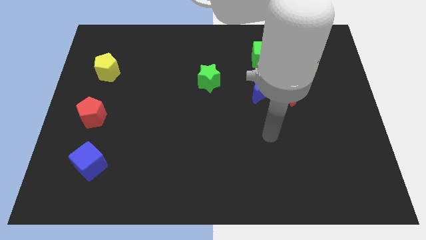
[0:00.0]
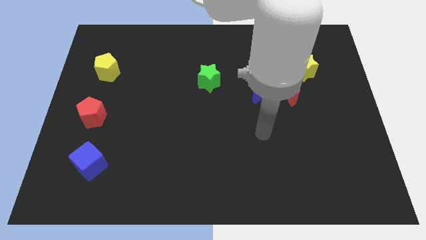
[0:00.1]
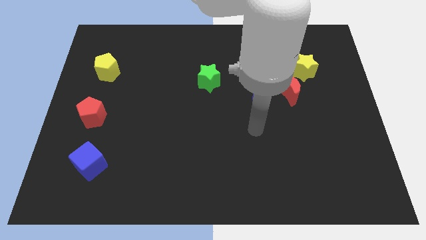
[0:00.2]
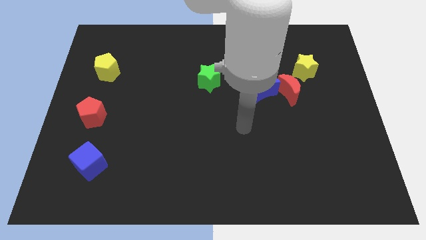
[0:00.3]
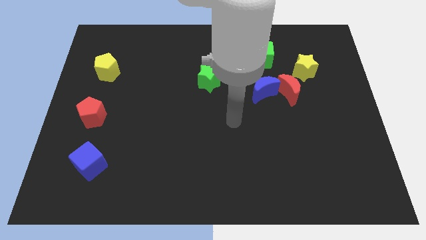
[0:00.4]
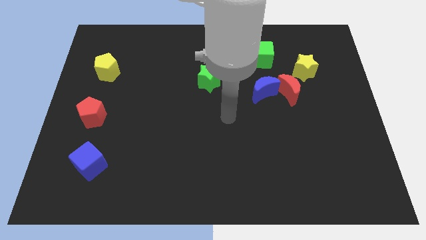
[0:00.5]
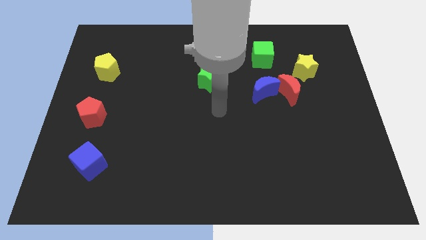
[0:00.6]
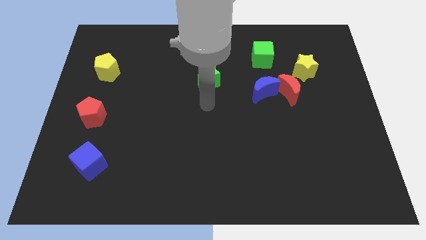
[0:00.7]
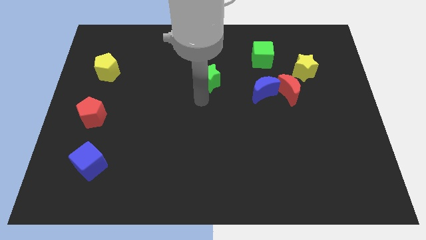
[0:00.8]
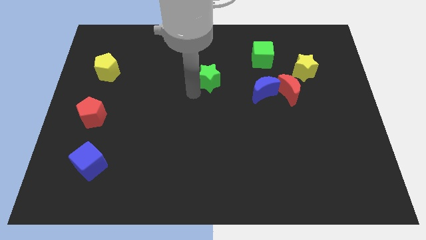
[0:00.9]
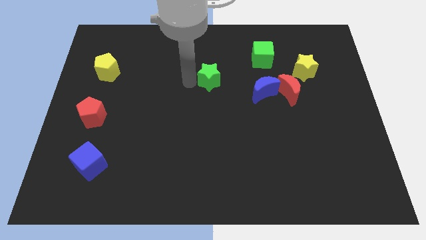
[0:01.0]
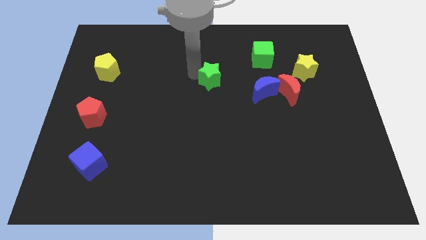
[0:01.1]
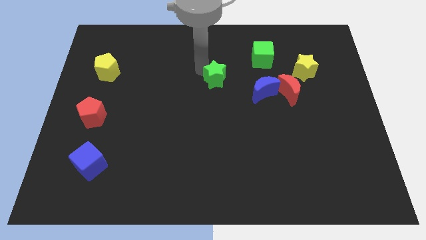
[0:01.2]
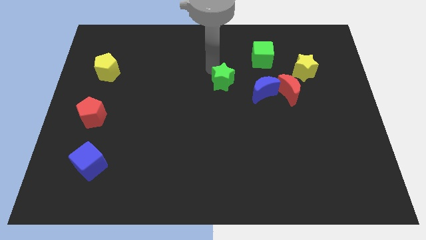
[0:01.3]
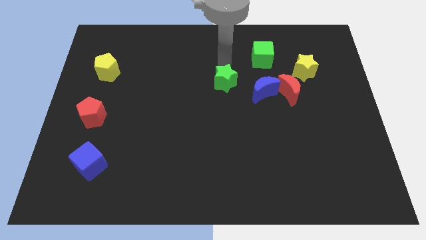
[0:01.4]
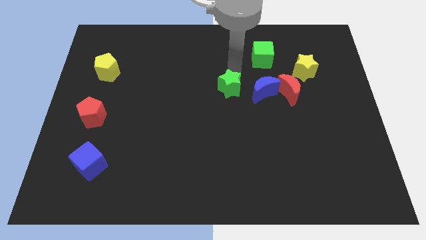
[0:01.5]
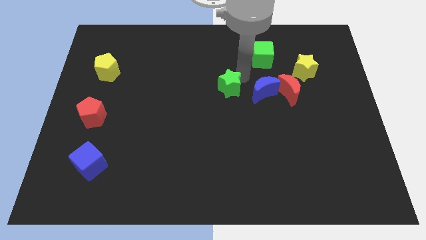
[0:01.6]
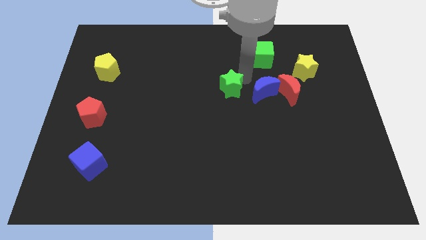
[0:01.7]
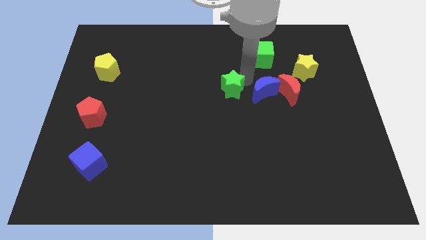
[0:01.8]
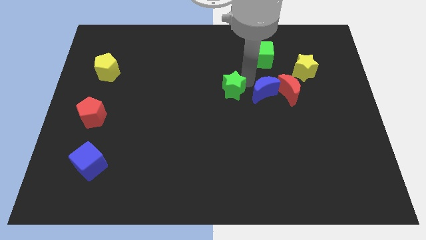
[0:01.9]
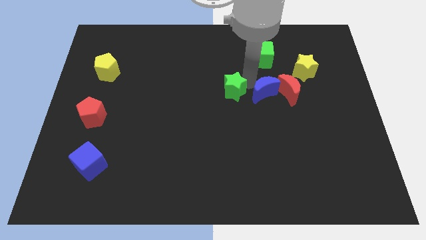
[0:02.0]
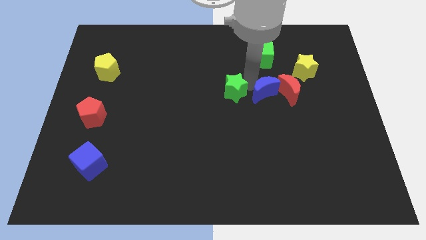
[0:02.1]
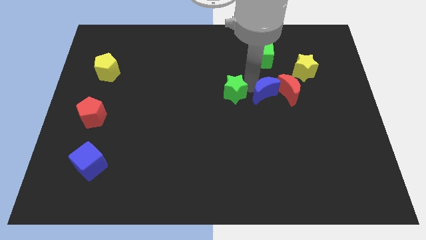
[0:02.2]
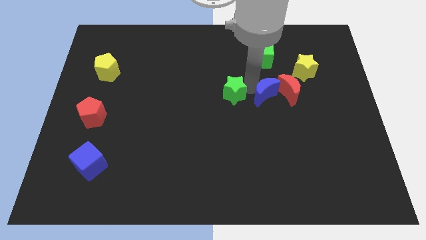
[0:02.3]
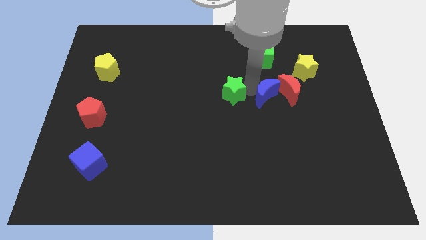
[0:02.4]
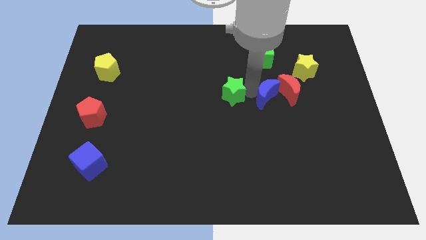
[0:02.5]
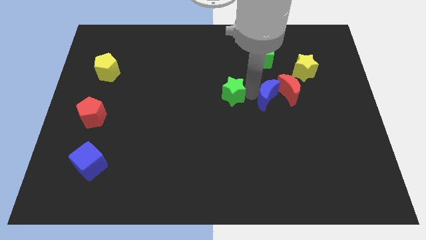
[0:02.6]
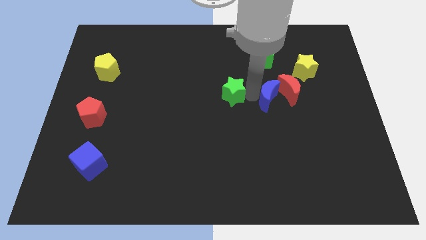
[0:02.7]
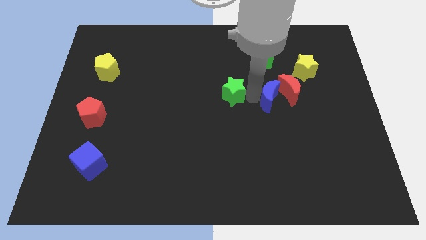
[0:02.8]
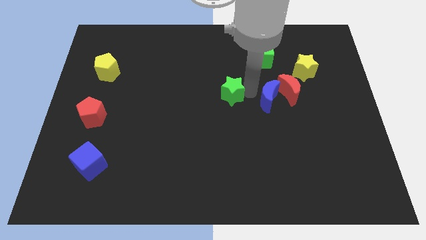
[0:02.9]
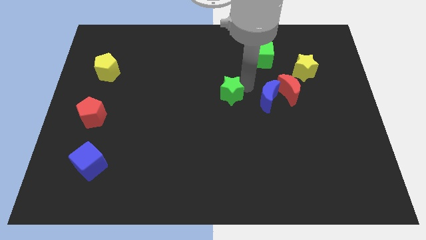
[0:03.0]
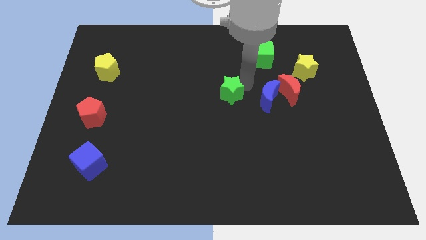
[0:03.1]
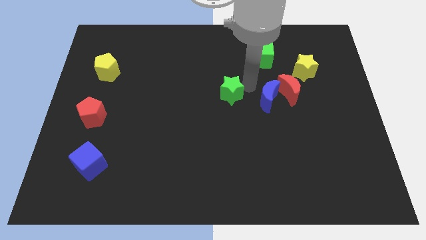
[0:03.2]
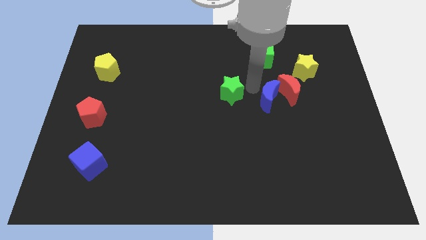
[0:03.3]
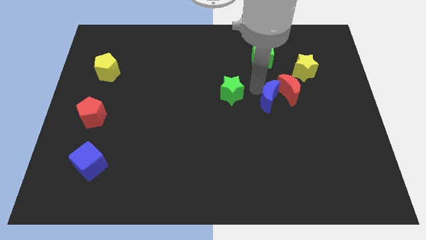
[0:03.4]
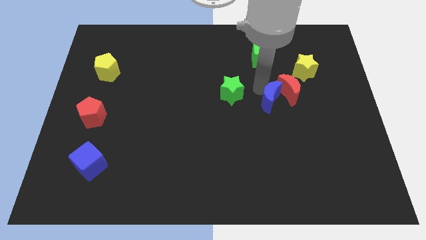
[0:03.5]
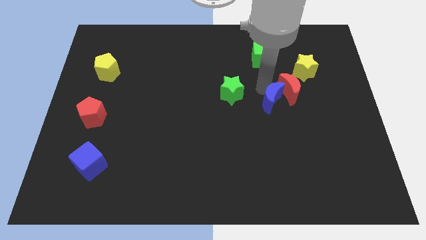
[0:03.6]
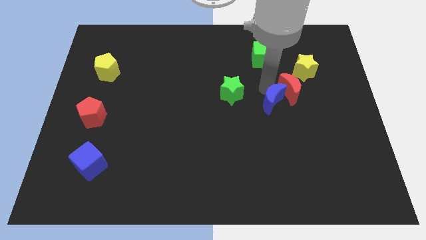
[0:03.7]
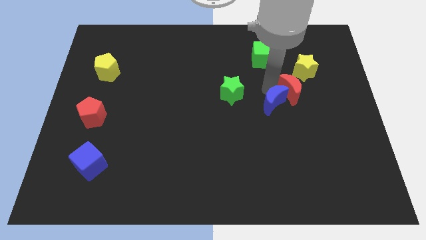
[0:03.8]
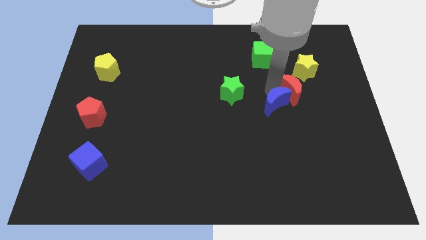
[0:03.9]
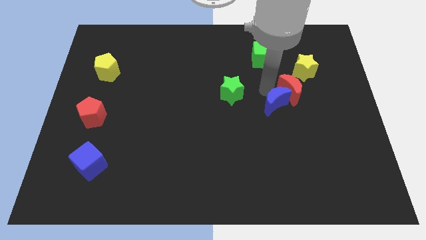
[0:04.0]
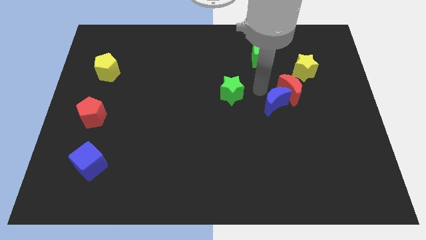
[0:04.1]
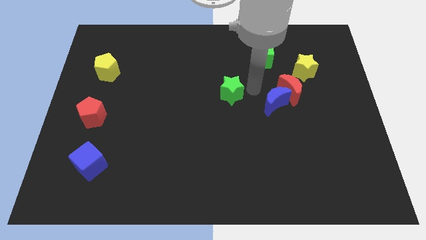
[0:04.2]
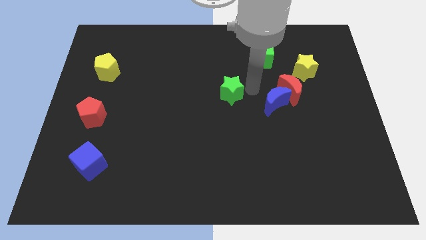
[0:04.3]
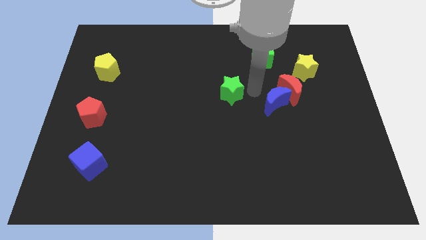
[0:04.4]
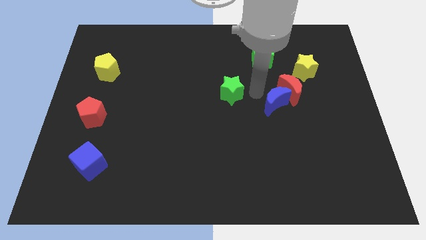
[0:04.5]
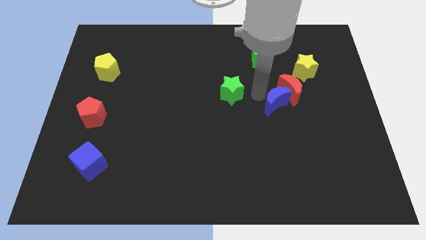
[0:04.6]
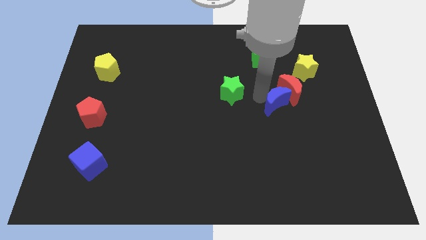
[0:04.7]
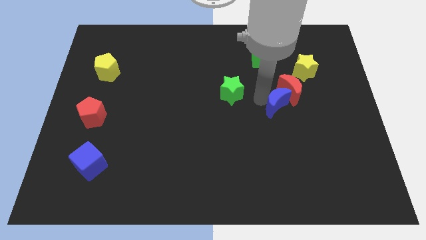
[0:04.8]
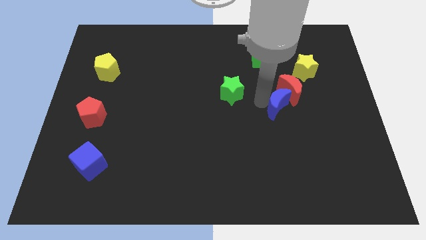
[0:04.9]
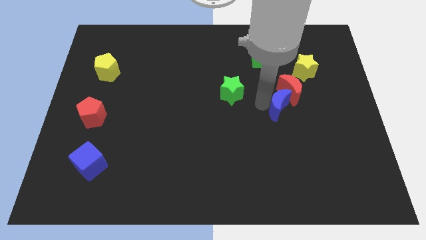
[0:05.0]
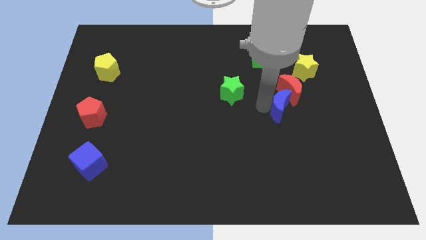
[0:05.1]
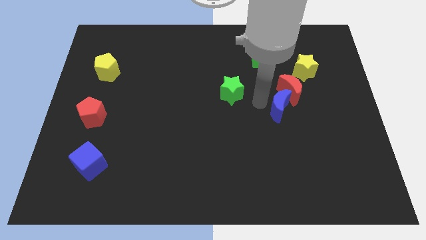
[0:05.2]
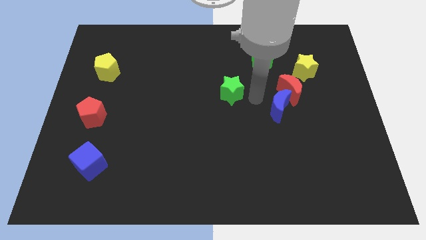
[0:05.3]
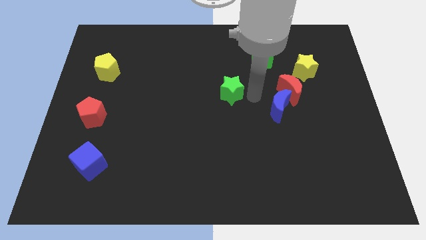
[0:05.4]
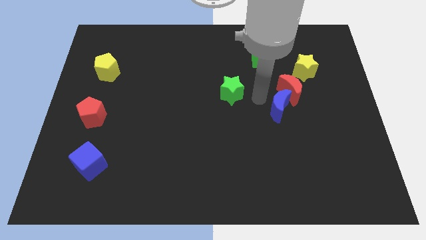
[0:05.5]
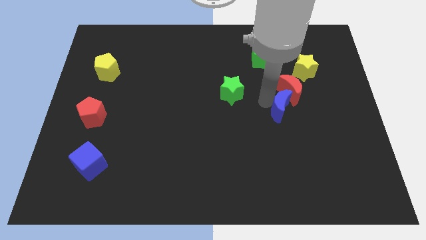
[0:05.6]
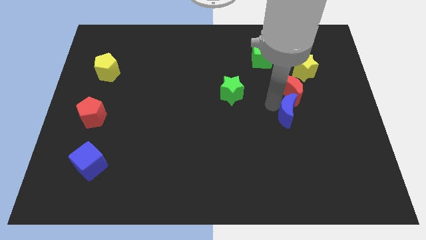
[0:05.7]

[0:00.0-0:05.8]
slightly slide the blue moon down and to the right diagonally

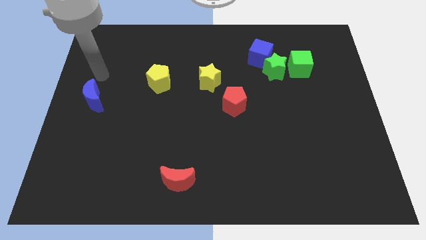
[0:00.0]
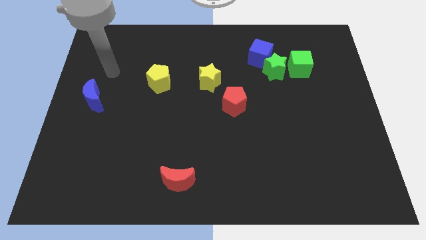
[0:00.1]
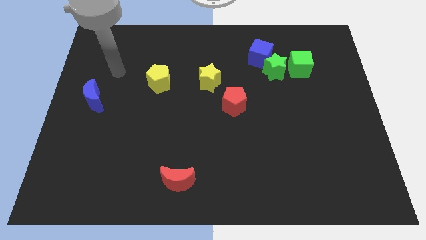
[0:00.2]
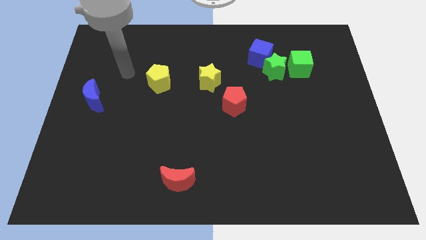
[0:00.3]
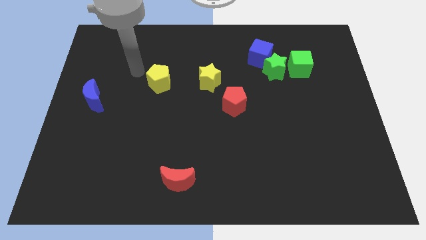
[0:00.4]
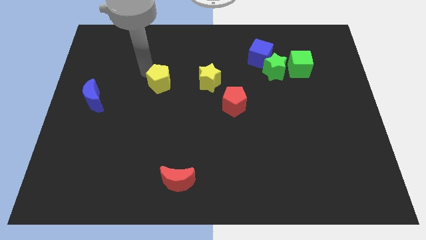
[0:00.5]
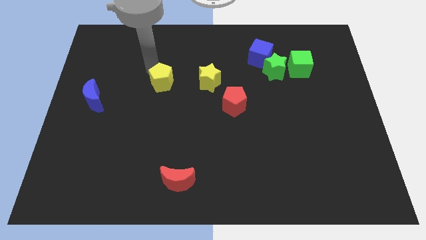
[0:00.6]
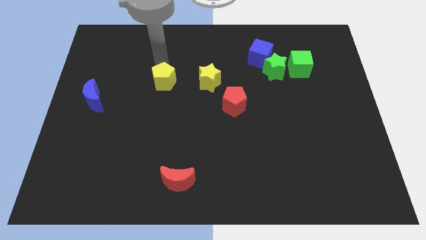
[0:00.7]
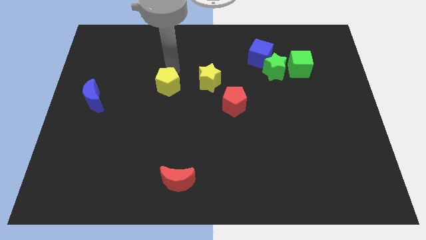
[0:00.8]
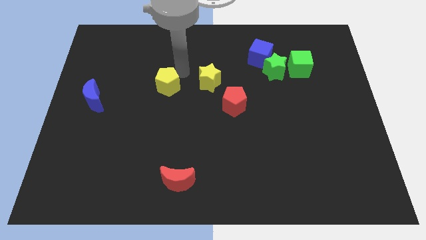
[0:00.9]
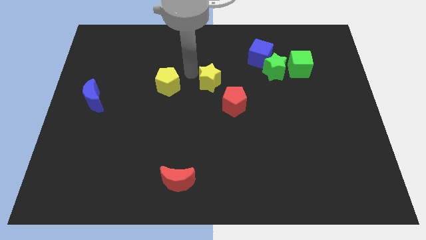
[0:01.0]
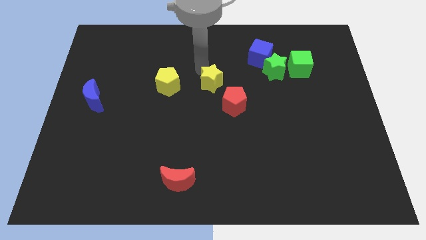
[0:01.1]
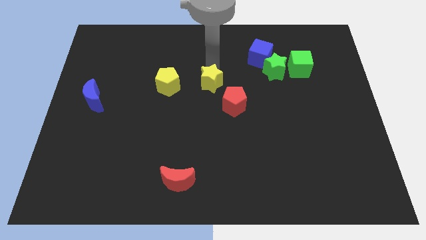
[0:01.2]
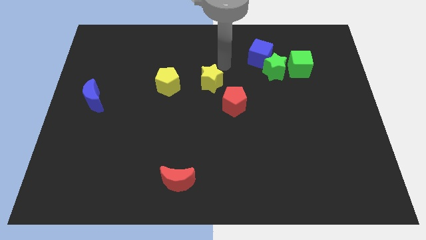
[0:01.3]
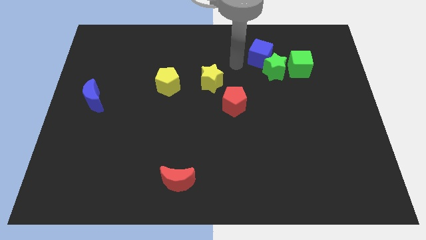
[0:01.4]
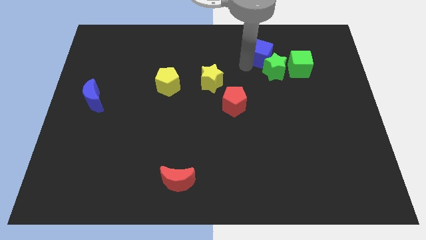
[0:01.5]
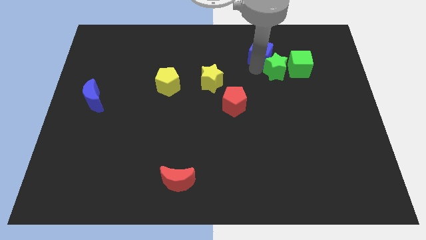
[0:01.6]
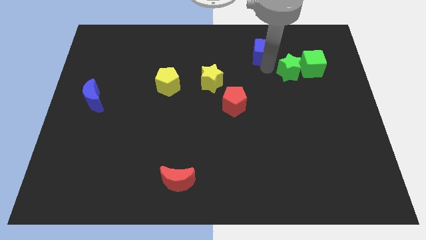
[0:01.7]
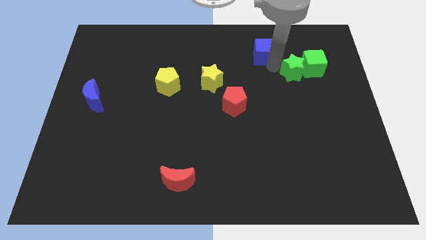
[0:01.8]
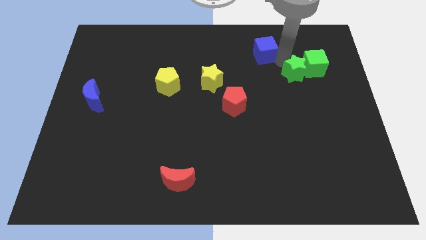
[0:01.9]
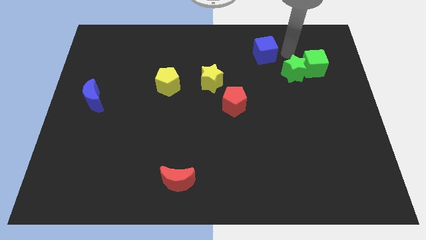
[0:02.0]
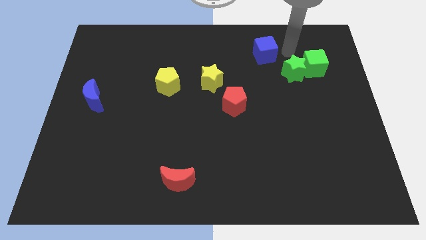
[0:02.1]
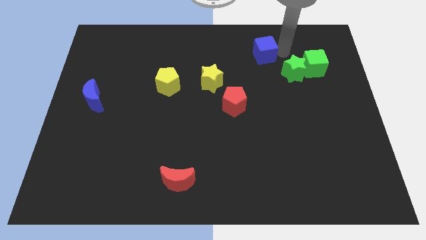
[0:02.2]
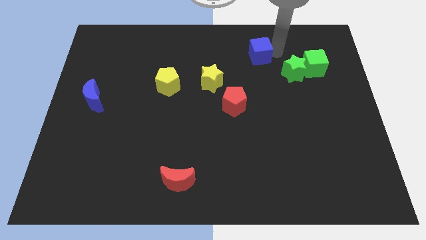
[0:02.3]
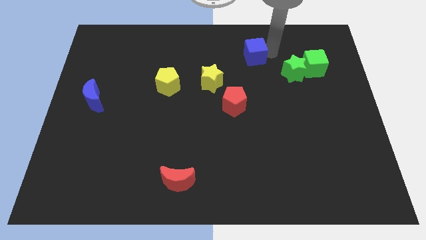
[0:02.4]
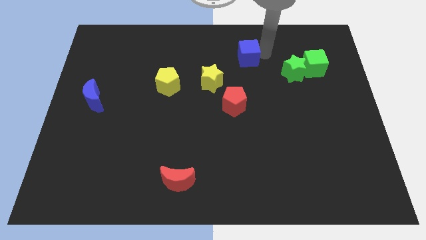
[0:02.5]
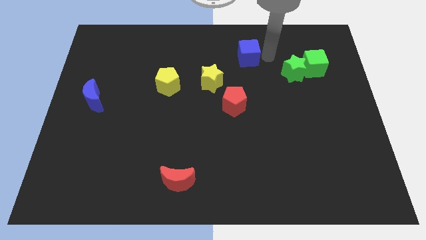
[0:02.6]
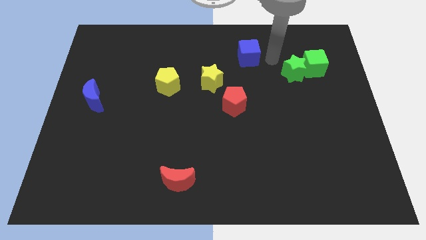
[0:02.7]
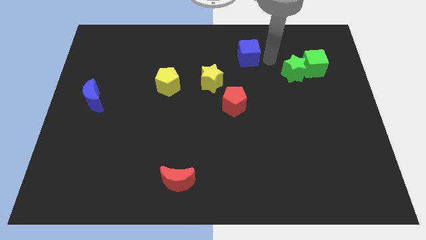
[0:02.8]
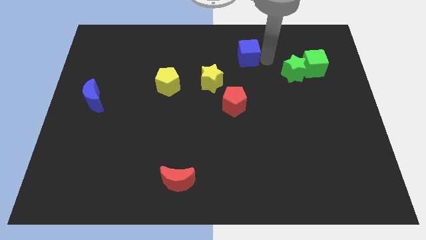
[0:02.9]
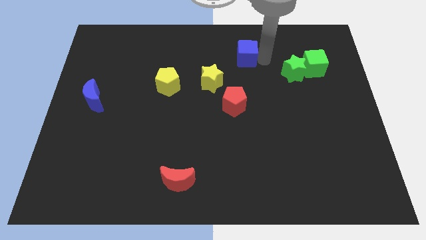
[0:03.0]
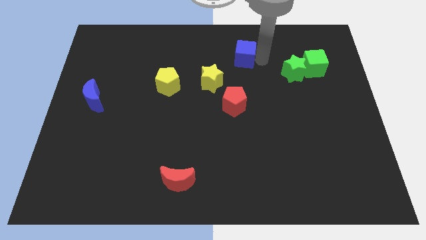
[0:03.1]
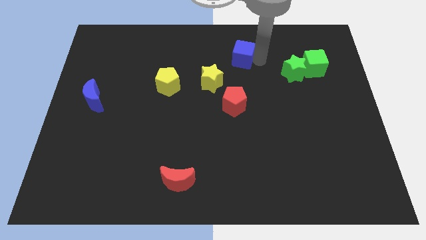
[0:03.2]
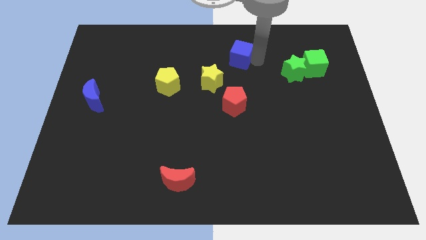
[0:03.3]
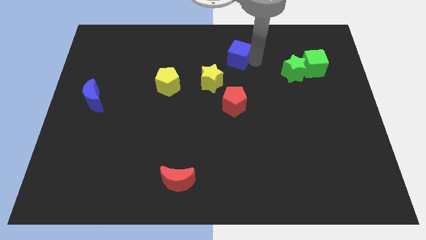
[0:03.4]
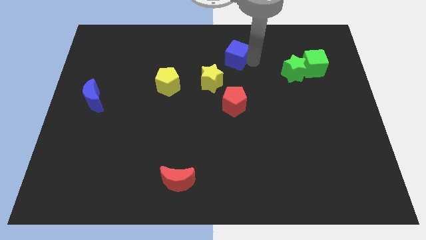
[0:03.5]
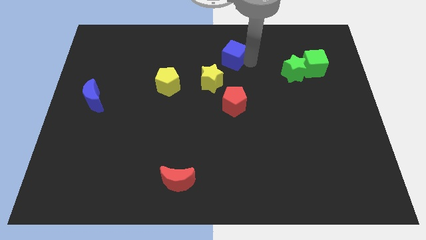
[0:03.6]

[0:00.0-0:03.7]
move the blue cube to the left a little
